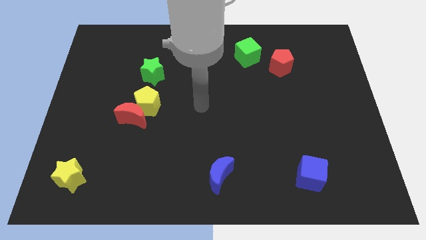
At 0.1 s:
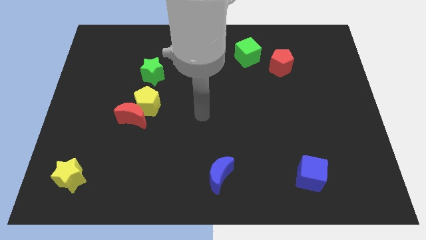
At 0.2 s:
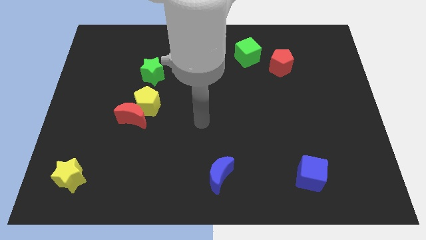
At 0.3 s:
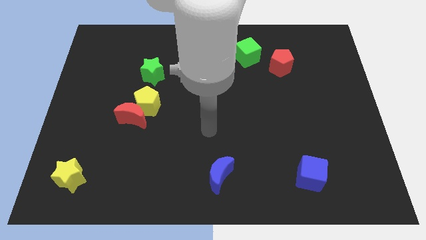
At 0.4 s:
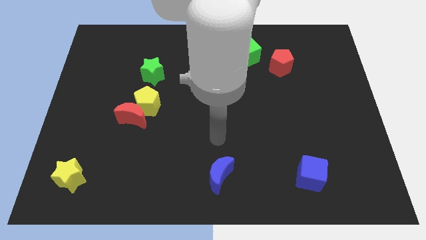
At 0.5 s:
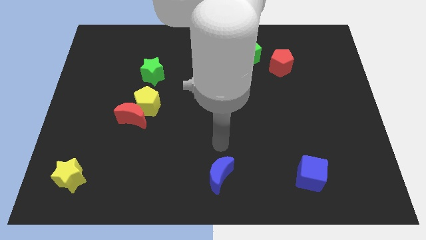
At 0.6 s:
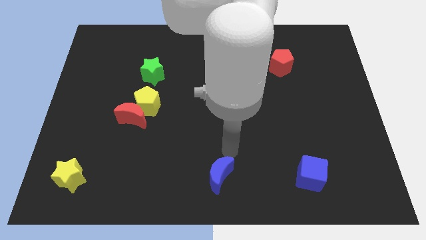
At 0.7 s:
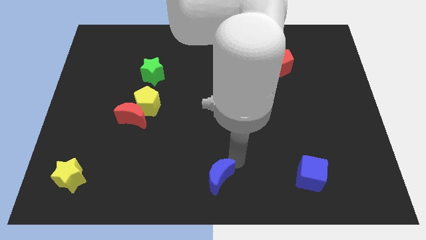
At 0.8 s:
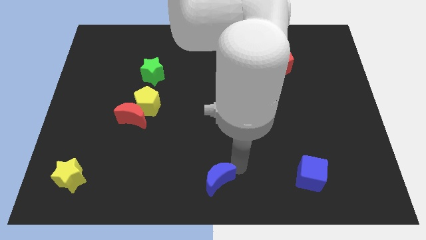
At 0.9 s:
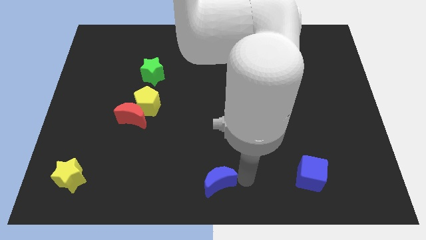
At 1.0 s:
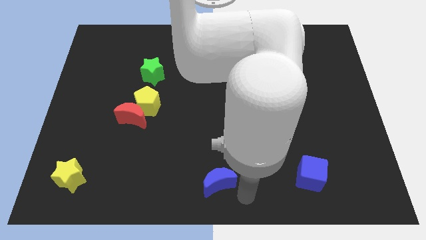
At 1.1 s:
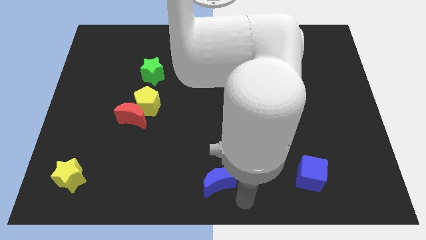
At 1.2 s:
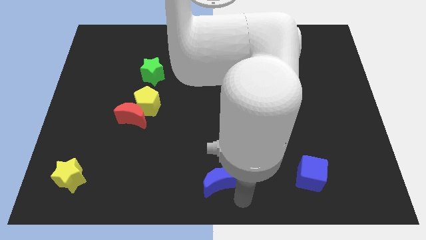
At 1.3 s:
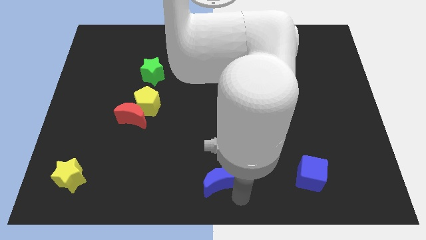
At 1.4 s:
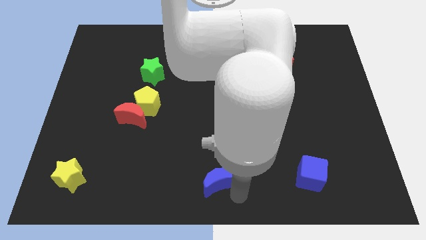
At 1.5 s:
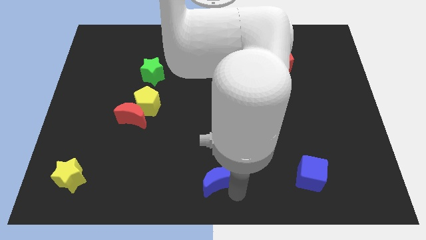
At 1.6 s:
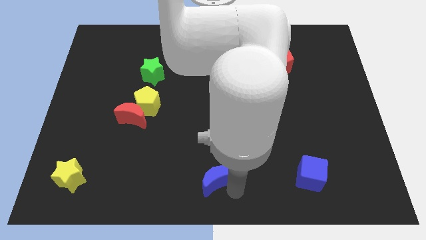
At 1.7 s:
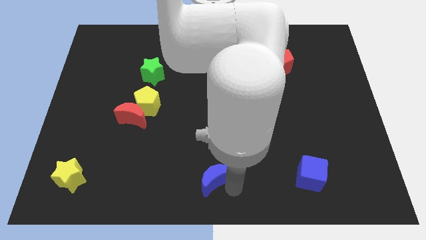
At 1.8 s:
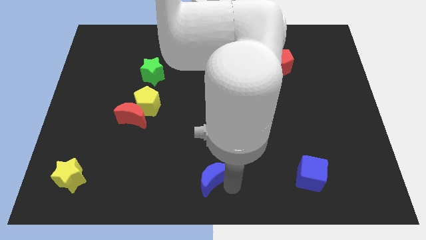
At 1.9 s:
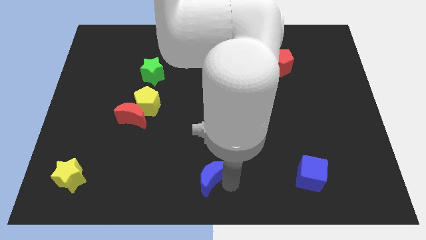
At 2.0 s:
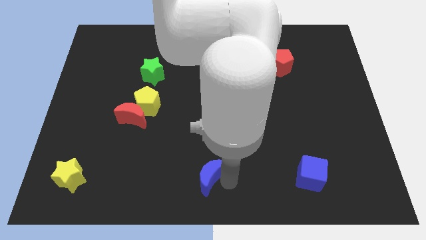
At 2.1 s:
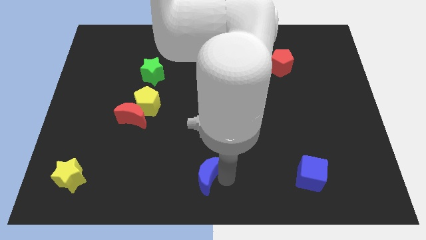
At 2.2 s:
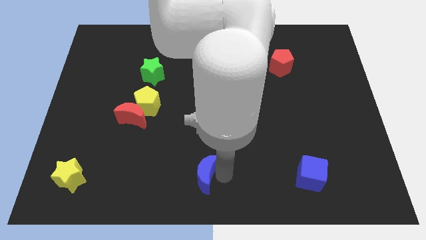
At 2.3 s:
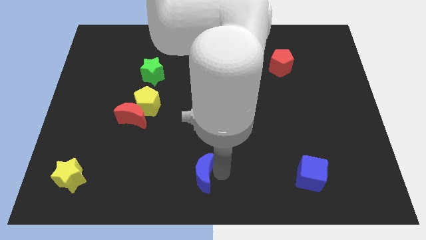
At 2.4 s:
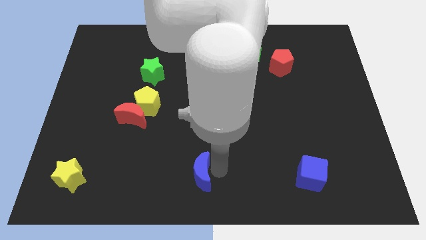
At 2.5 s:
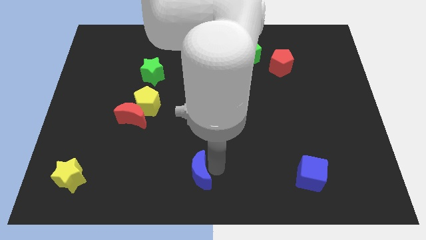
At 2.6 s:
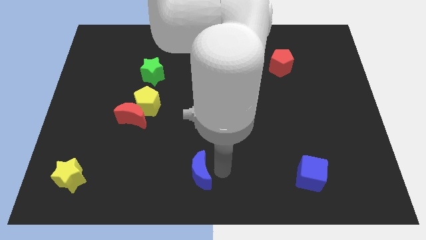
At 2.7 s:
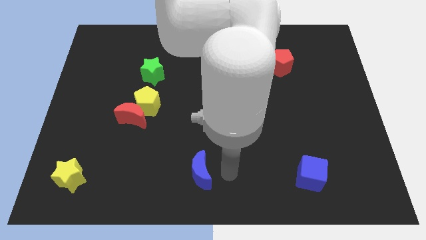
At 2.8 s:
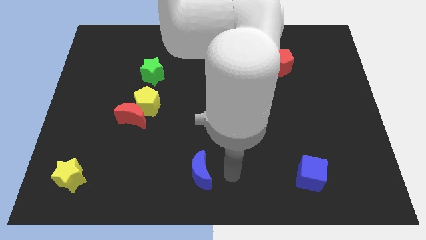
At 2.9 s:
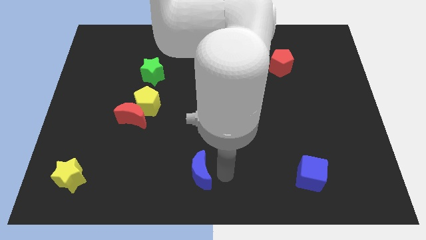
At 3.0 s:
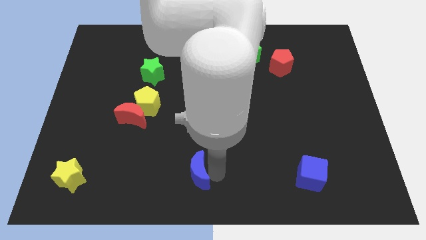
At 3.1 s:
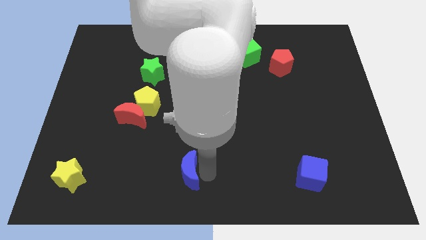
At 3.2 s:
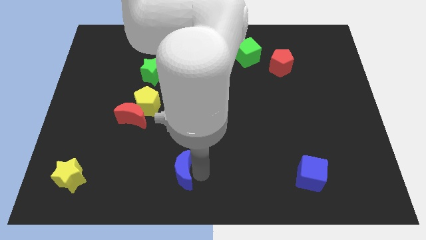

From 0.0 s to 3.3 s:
slightly move the blue moon to the left

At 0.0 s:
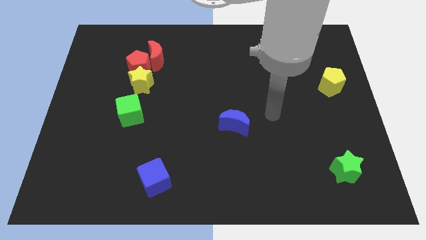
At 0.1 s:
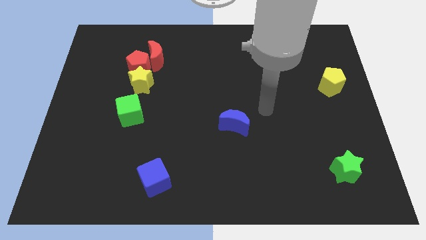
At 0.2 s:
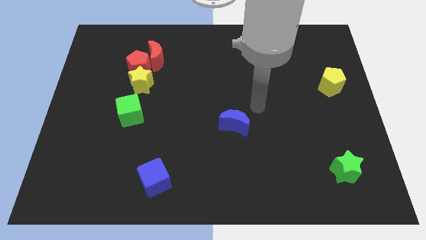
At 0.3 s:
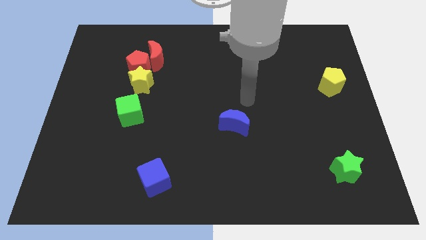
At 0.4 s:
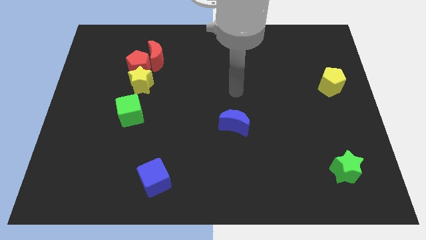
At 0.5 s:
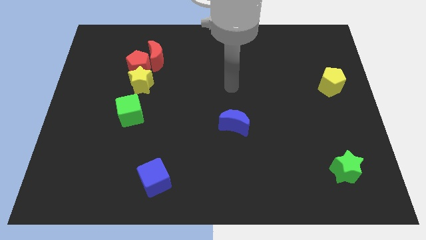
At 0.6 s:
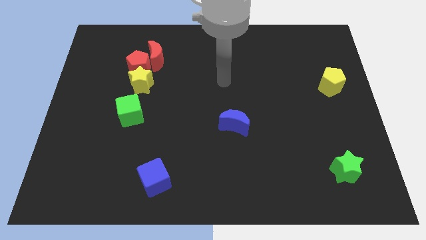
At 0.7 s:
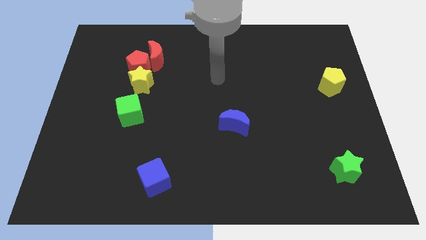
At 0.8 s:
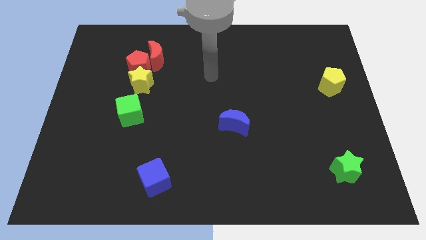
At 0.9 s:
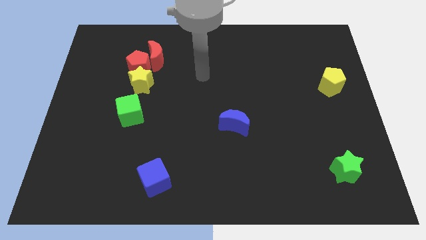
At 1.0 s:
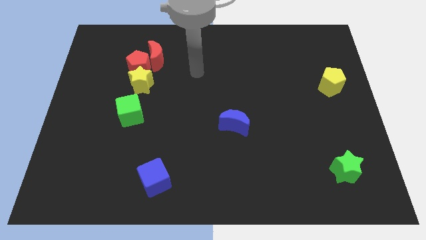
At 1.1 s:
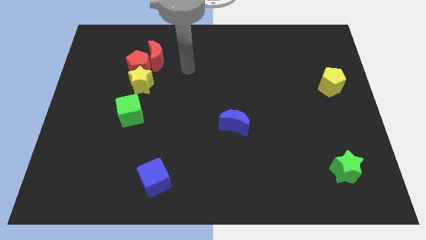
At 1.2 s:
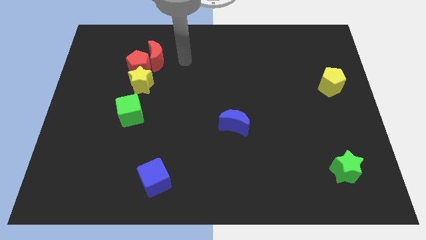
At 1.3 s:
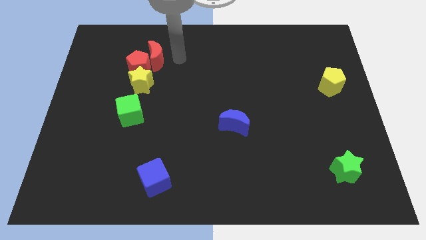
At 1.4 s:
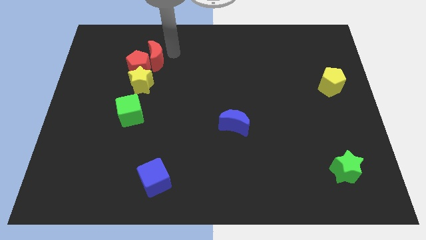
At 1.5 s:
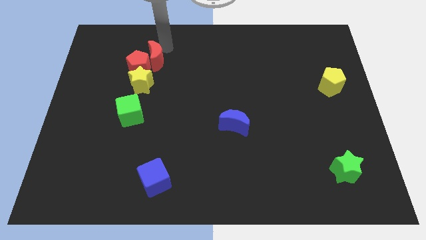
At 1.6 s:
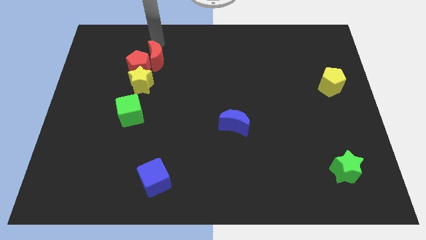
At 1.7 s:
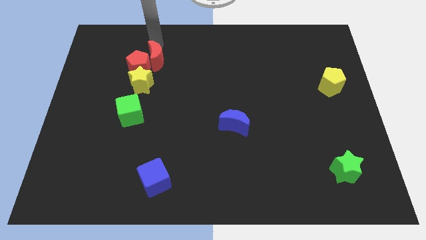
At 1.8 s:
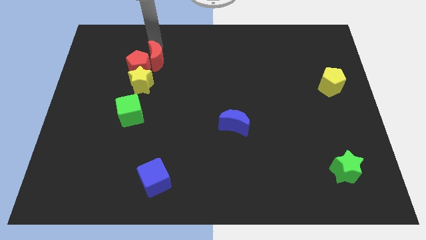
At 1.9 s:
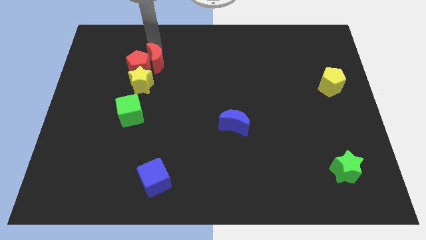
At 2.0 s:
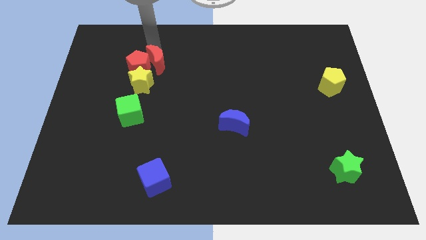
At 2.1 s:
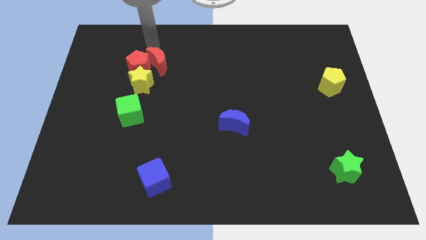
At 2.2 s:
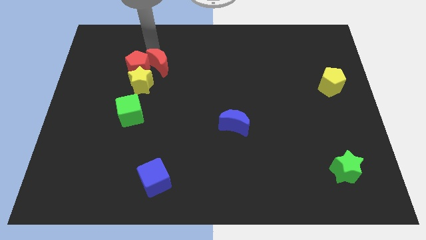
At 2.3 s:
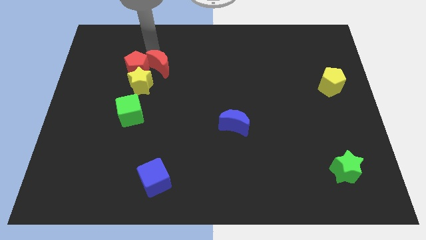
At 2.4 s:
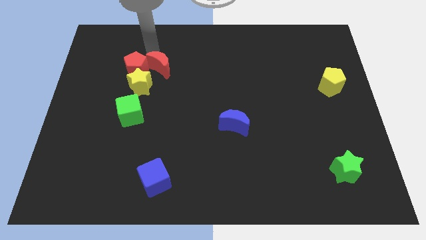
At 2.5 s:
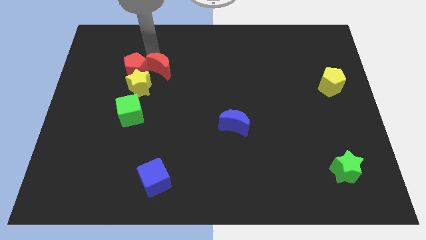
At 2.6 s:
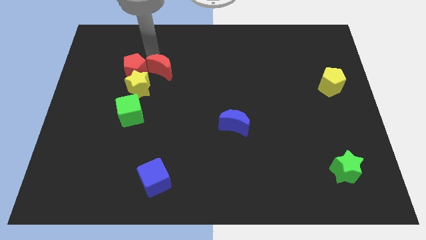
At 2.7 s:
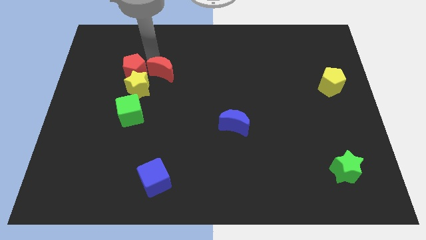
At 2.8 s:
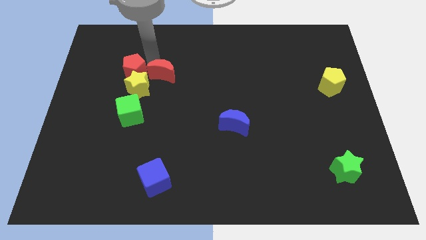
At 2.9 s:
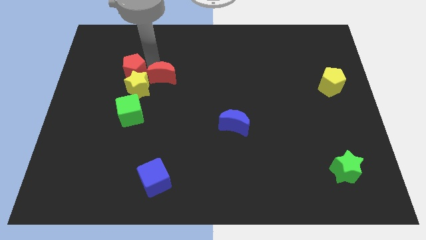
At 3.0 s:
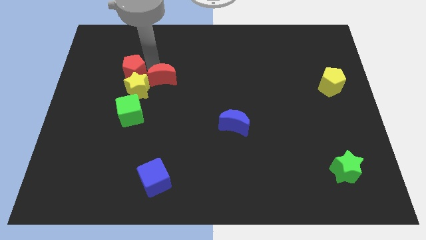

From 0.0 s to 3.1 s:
push the red moon down somewhat

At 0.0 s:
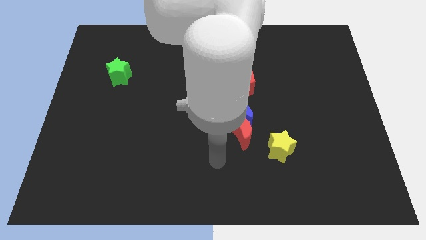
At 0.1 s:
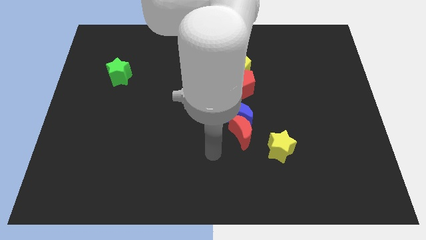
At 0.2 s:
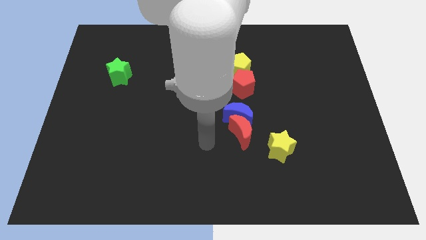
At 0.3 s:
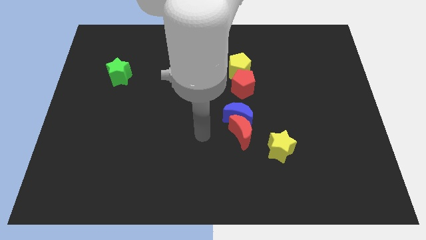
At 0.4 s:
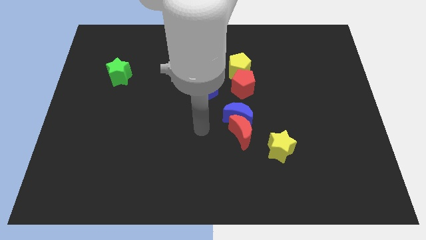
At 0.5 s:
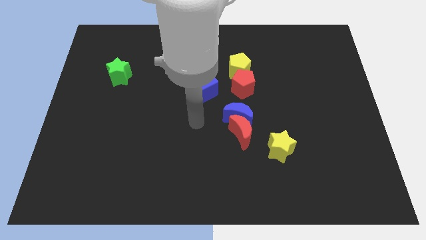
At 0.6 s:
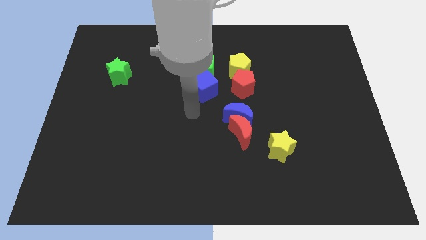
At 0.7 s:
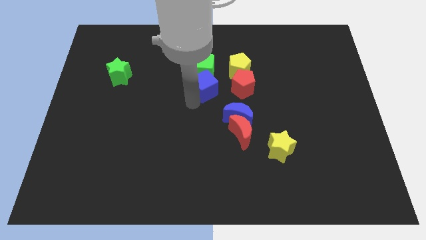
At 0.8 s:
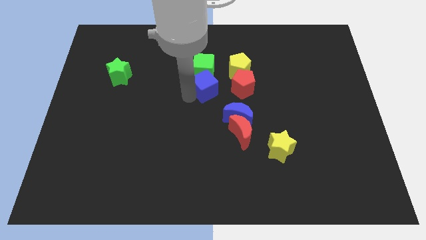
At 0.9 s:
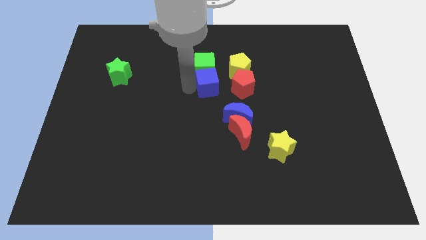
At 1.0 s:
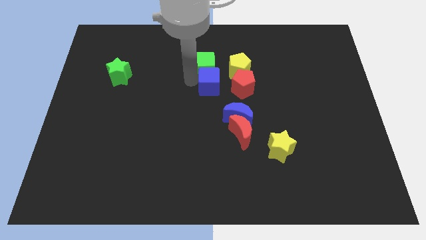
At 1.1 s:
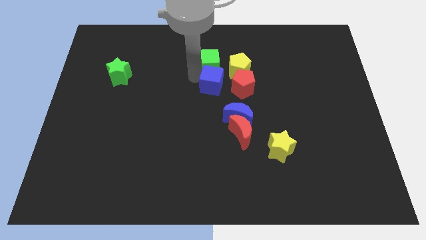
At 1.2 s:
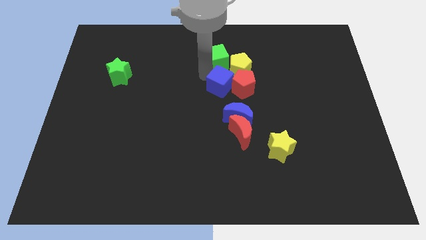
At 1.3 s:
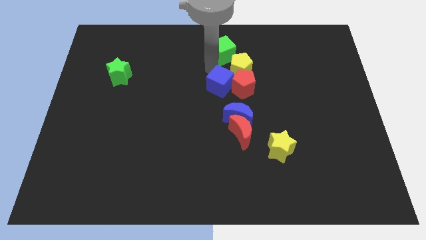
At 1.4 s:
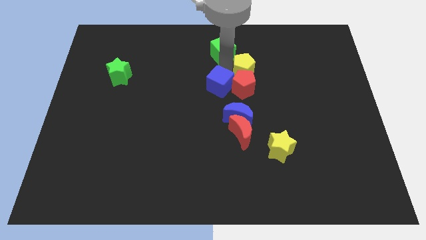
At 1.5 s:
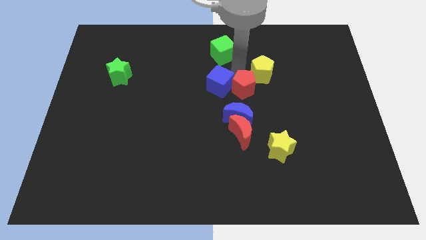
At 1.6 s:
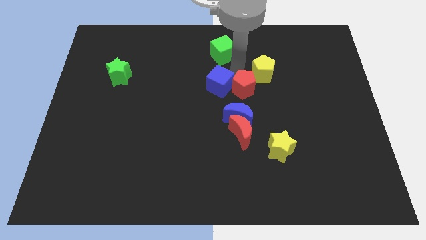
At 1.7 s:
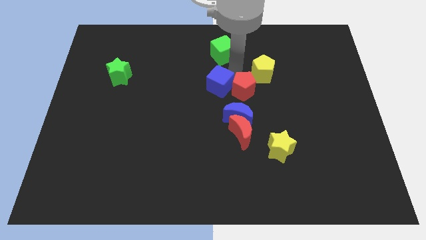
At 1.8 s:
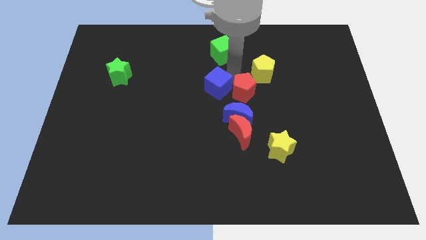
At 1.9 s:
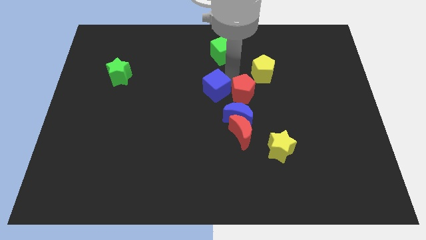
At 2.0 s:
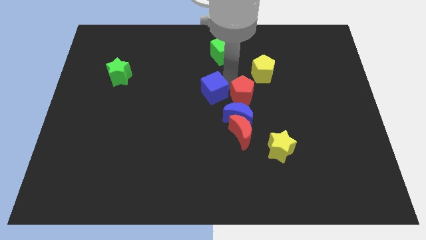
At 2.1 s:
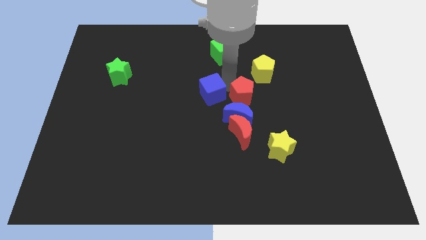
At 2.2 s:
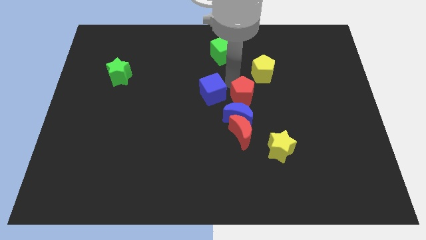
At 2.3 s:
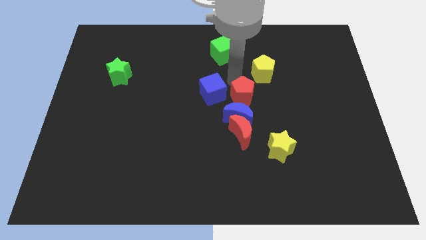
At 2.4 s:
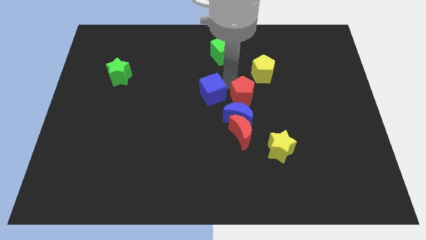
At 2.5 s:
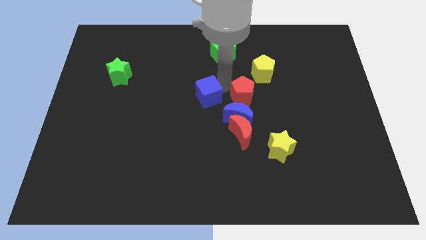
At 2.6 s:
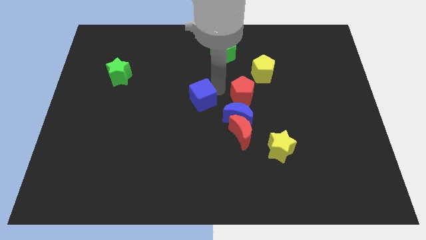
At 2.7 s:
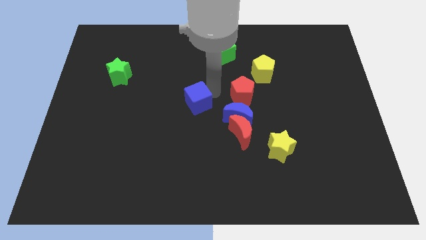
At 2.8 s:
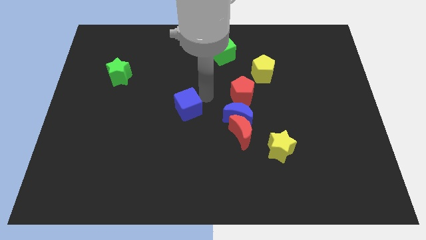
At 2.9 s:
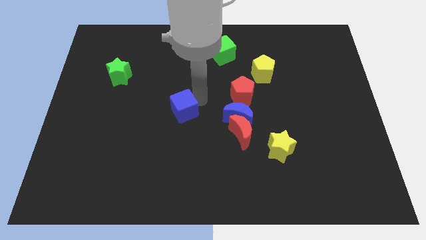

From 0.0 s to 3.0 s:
move the blue cube downwards and to the left diagonally a little
